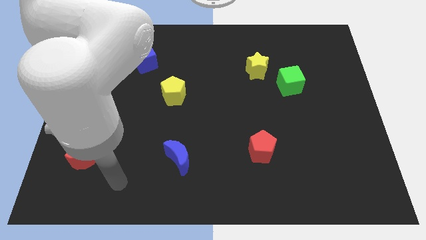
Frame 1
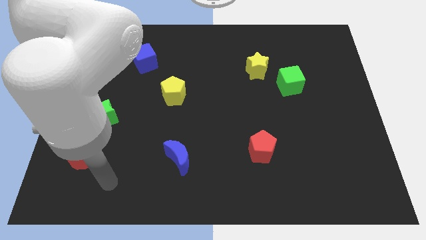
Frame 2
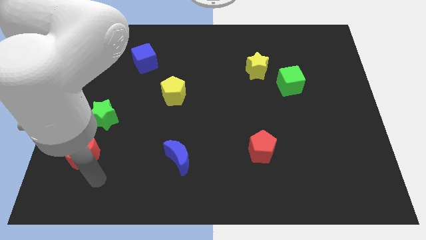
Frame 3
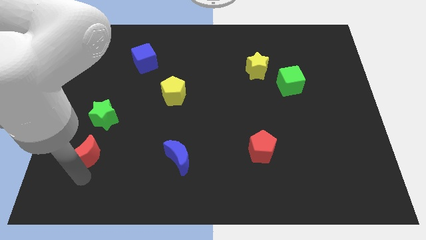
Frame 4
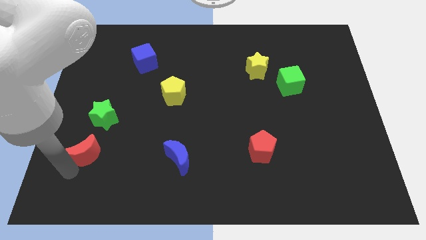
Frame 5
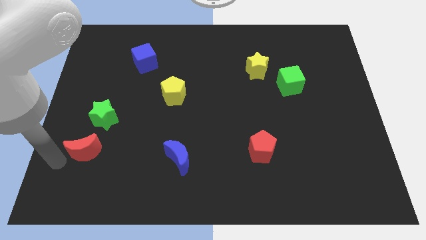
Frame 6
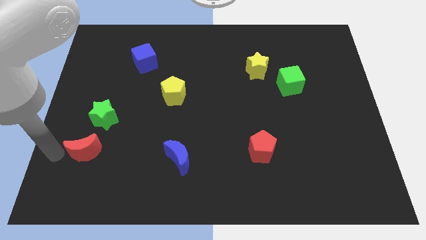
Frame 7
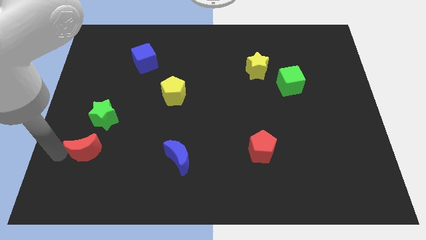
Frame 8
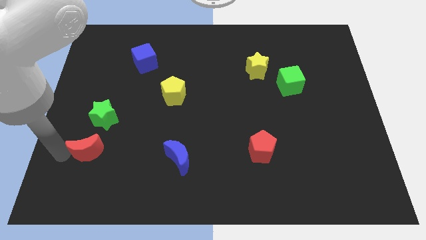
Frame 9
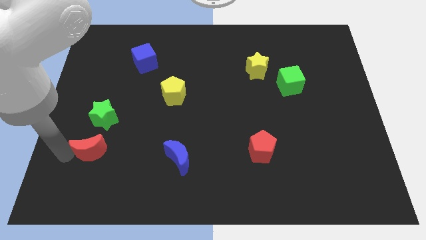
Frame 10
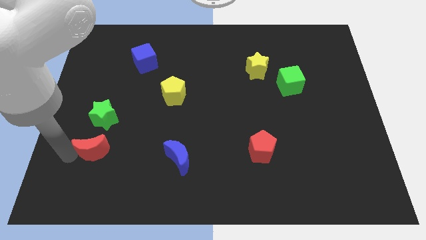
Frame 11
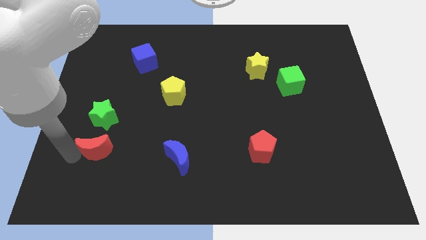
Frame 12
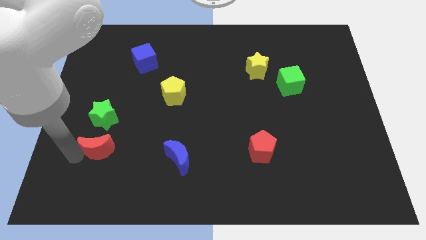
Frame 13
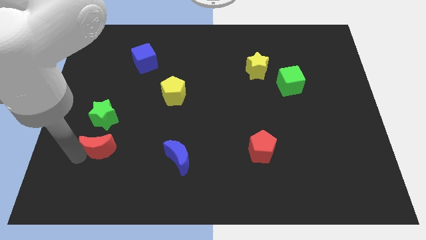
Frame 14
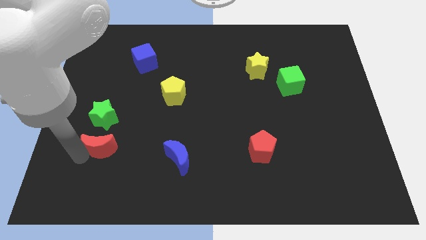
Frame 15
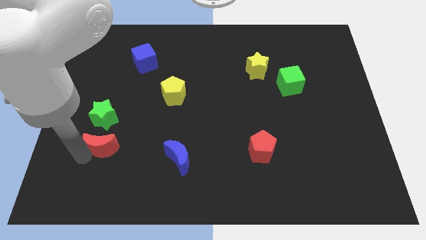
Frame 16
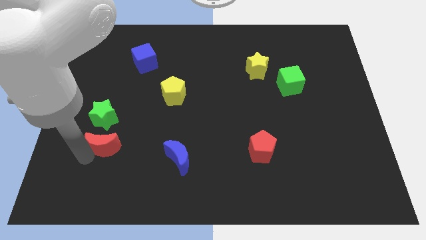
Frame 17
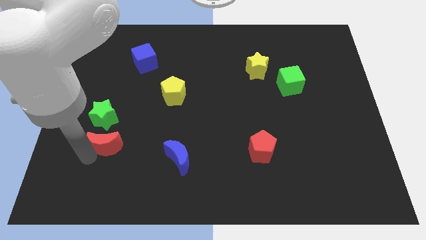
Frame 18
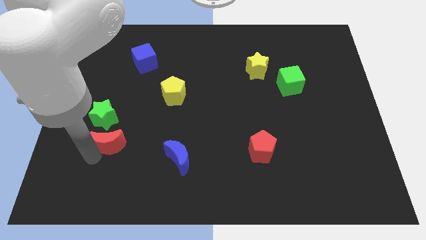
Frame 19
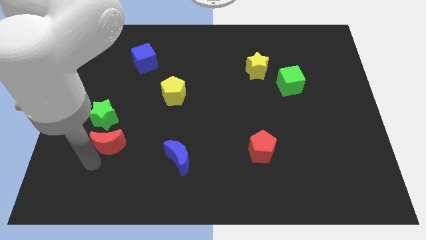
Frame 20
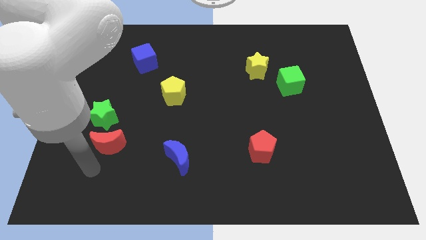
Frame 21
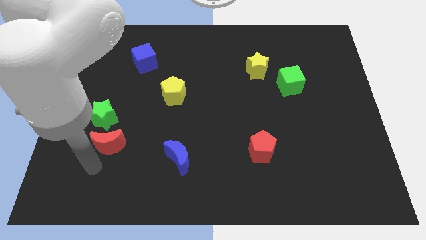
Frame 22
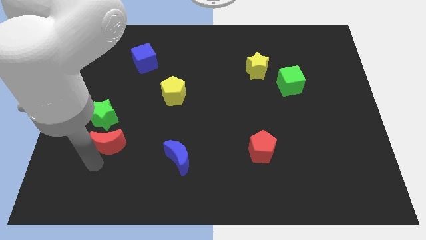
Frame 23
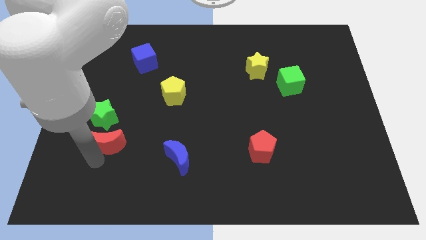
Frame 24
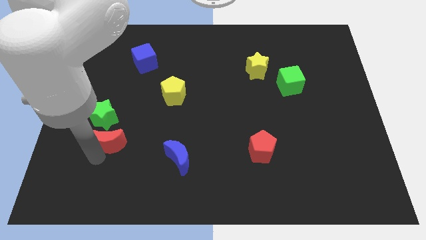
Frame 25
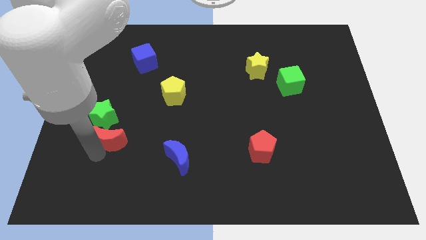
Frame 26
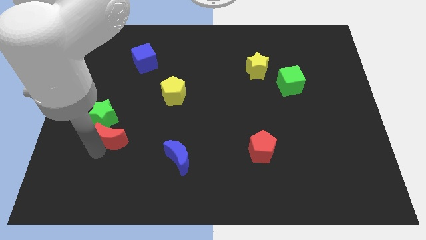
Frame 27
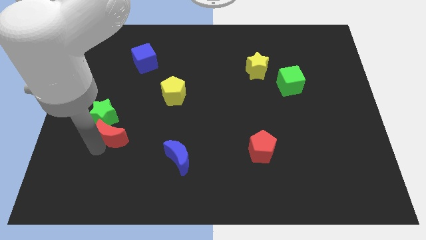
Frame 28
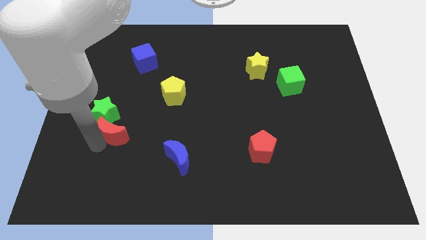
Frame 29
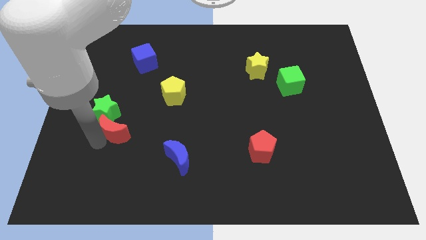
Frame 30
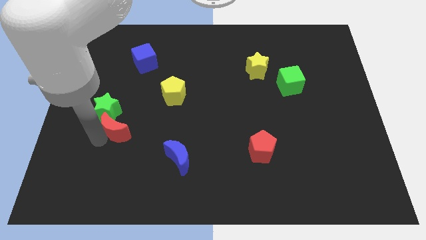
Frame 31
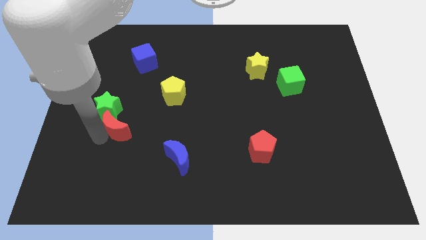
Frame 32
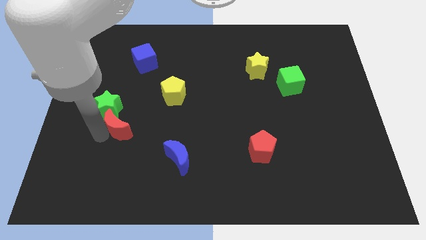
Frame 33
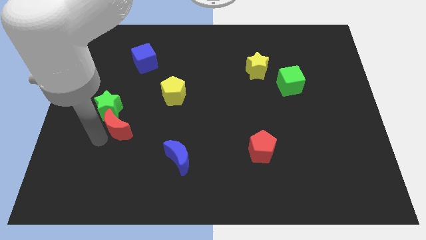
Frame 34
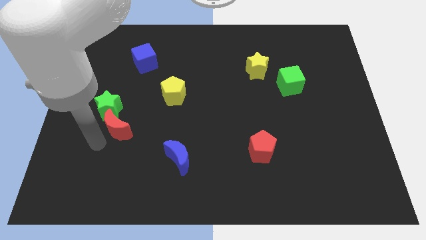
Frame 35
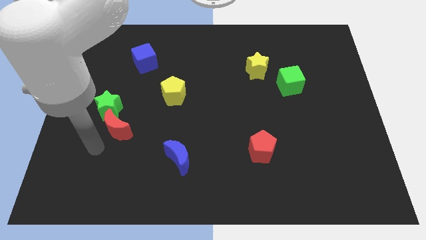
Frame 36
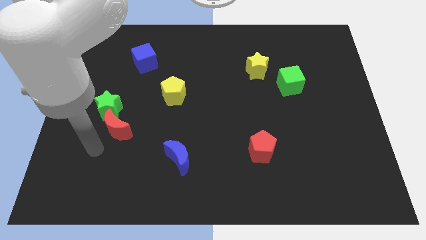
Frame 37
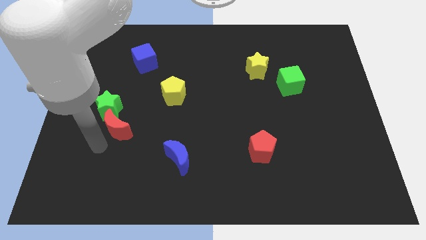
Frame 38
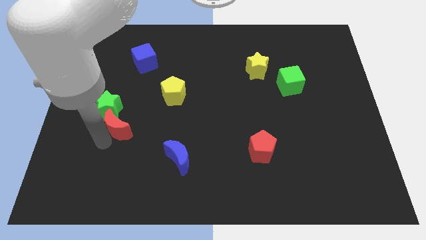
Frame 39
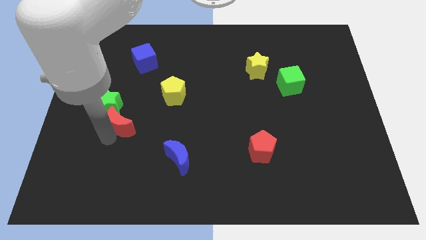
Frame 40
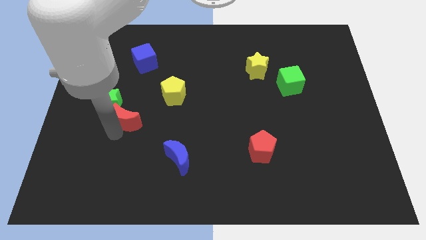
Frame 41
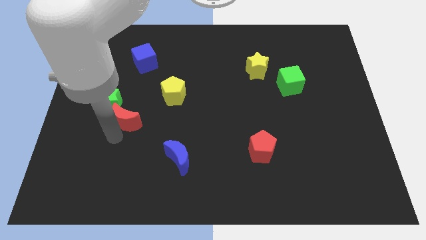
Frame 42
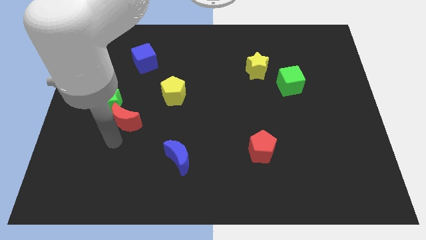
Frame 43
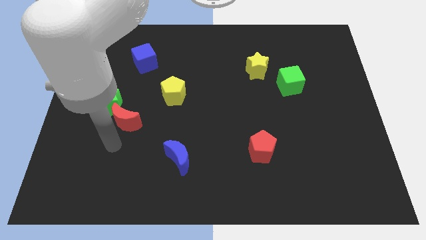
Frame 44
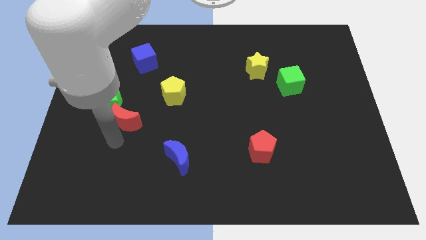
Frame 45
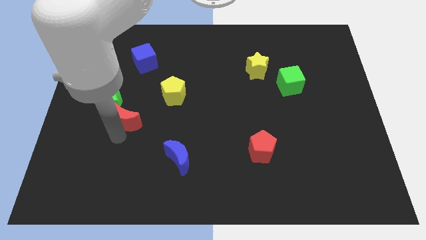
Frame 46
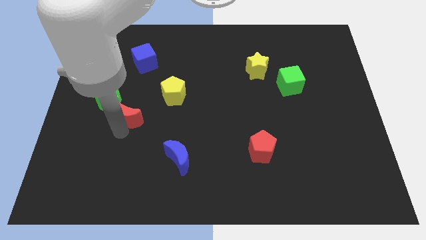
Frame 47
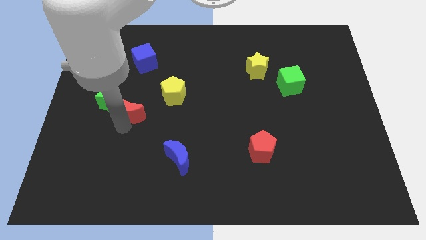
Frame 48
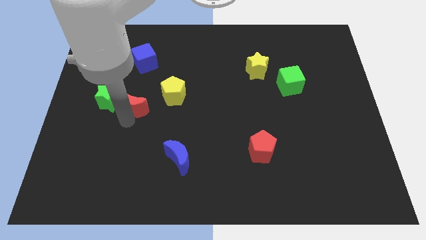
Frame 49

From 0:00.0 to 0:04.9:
move the red moon below the blue cube

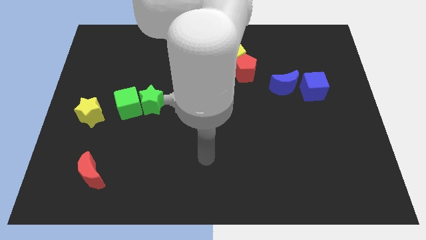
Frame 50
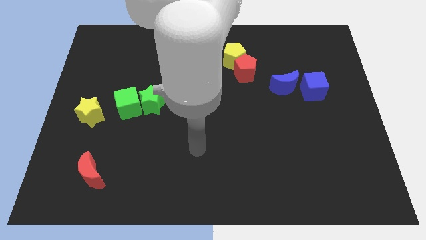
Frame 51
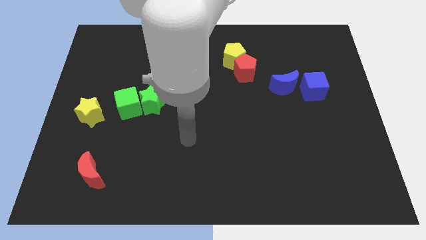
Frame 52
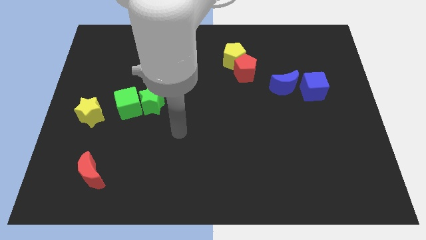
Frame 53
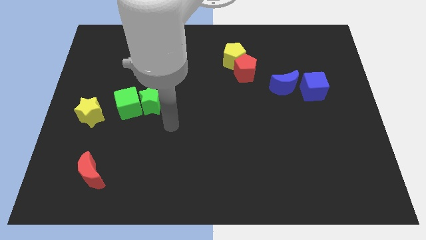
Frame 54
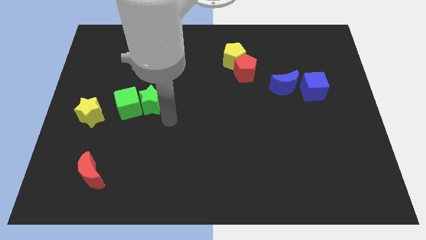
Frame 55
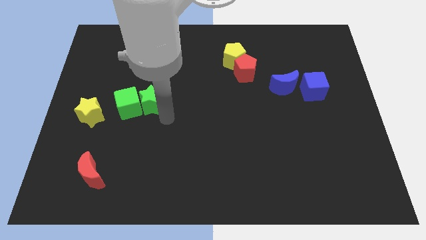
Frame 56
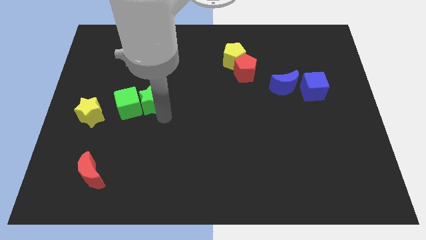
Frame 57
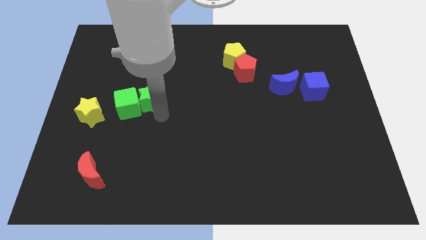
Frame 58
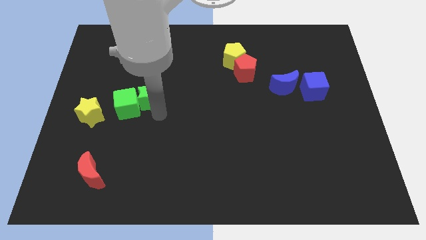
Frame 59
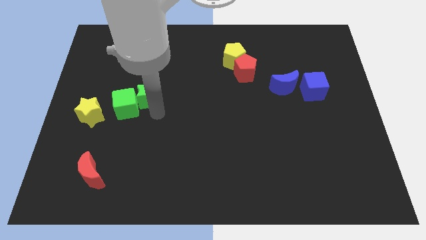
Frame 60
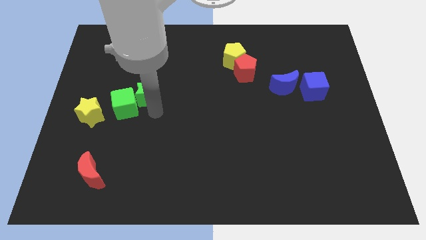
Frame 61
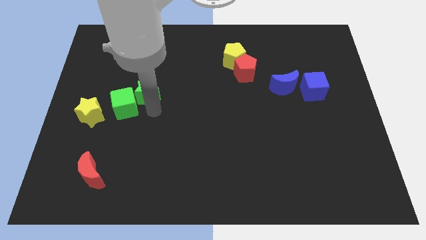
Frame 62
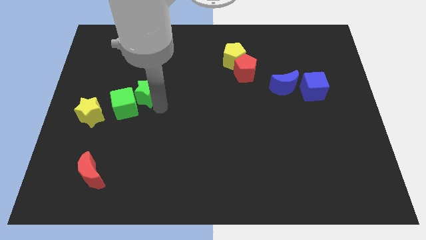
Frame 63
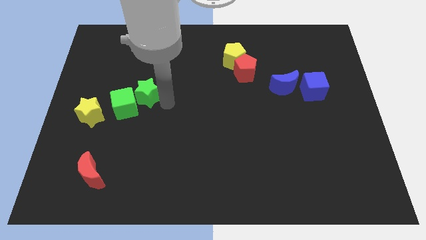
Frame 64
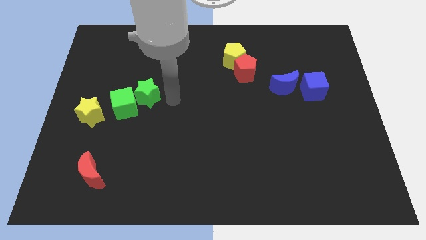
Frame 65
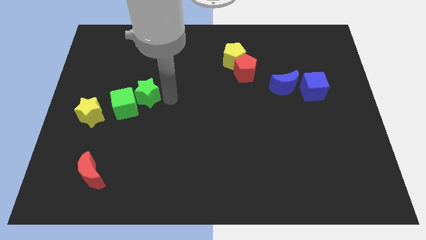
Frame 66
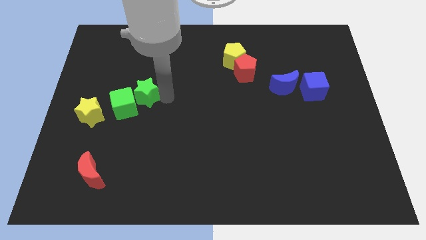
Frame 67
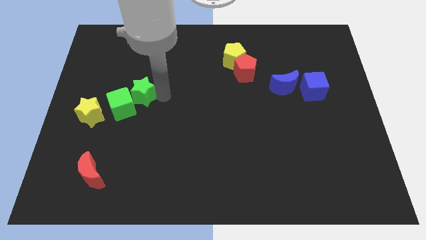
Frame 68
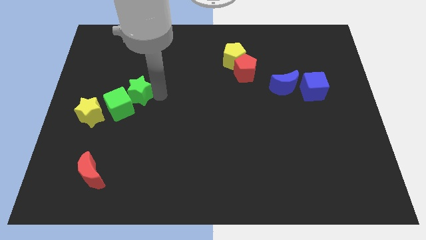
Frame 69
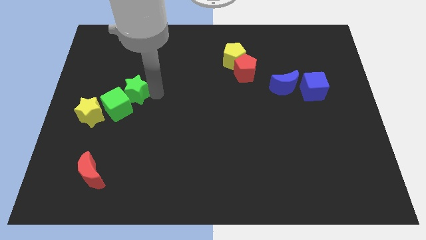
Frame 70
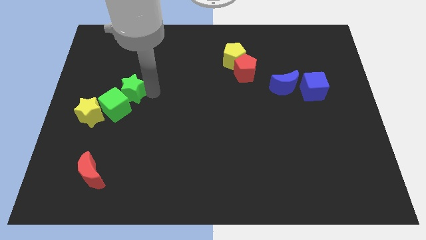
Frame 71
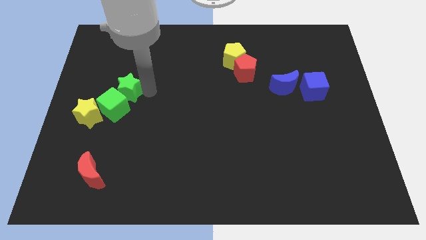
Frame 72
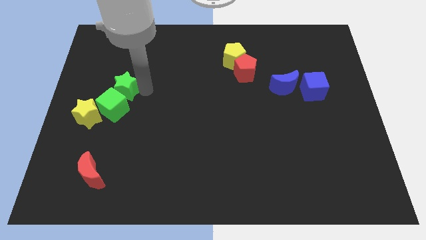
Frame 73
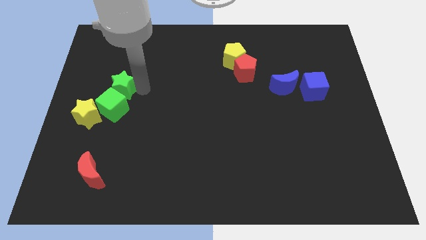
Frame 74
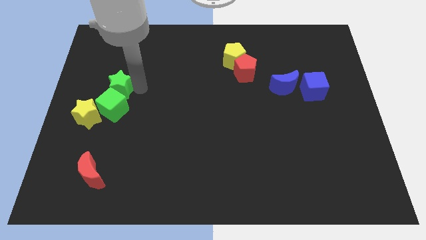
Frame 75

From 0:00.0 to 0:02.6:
push the green star to the top left side of the green cube

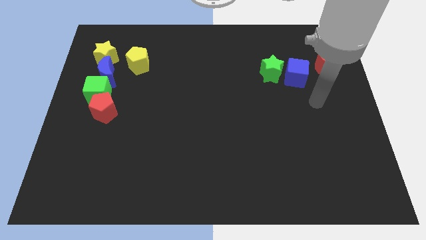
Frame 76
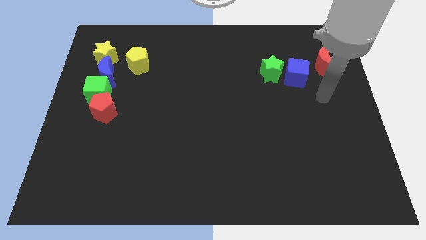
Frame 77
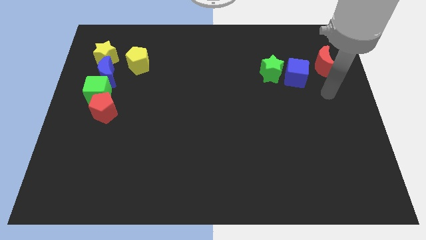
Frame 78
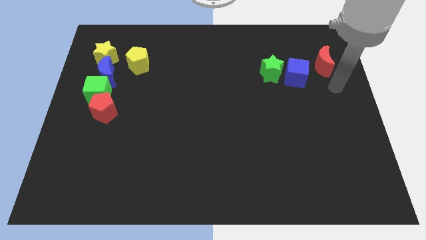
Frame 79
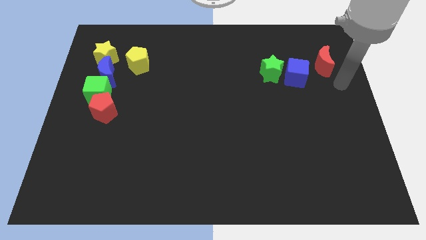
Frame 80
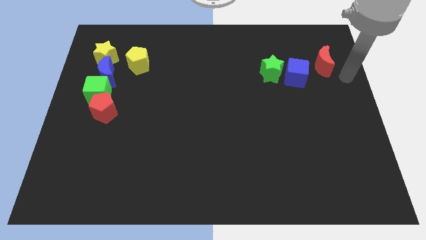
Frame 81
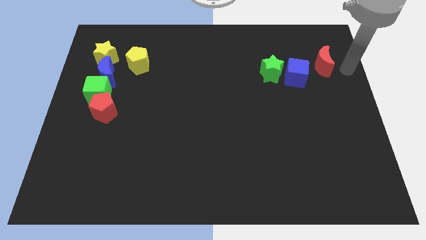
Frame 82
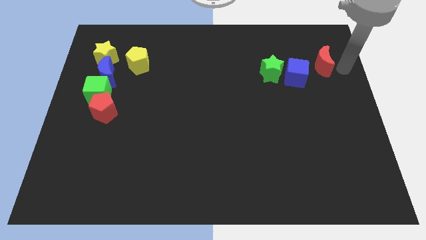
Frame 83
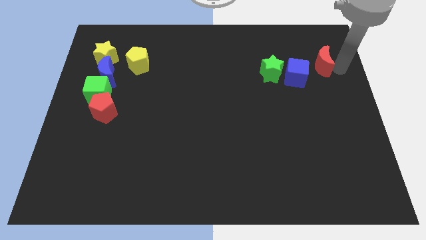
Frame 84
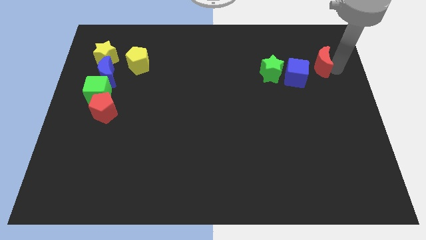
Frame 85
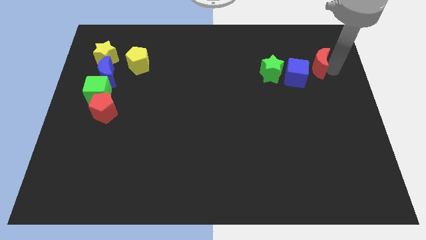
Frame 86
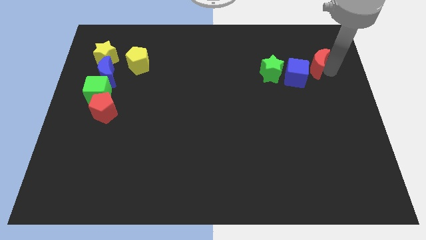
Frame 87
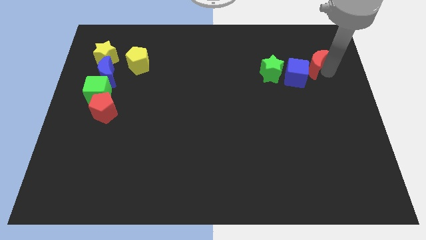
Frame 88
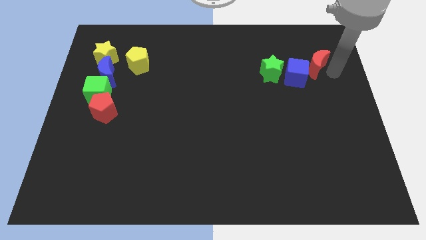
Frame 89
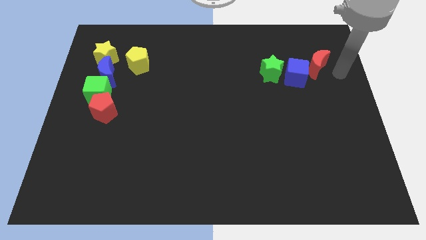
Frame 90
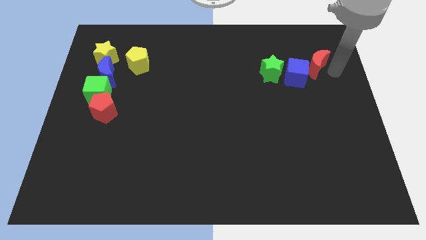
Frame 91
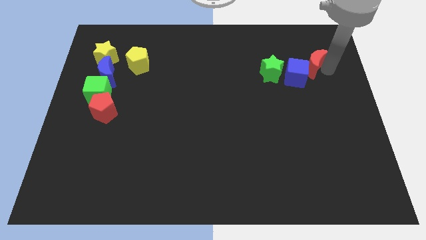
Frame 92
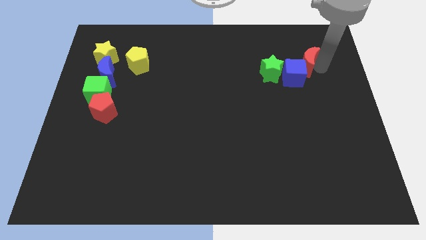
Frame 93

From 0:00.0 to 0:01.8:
move the red moon to the top right side of the green star
